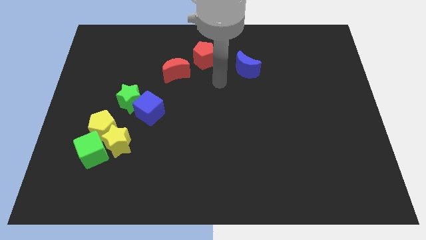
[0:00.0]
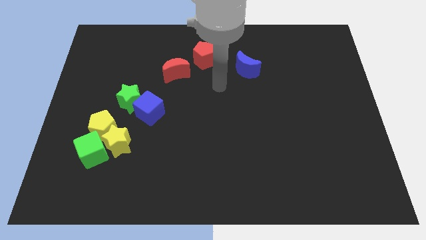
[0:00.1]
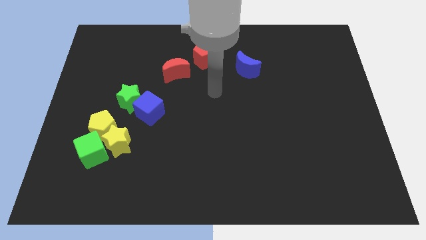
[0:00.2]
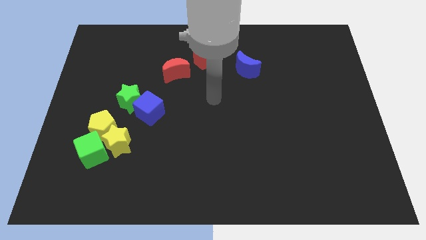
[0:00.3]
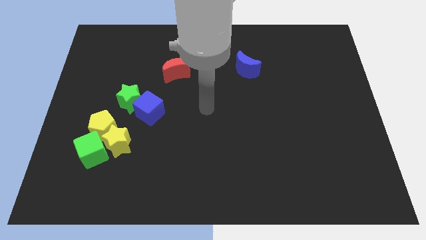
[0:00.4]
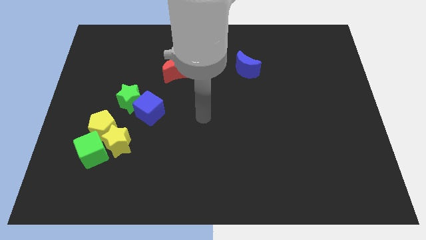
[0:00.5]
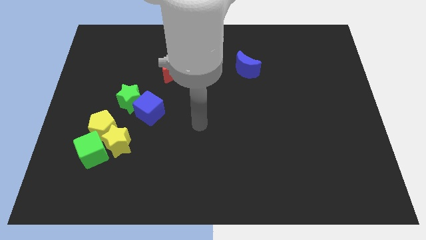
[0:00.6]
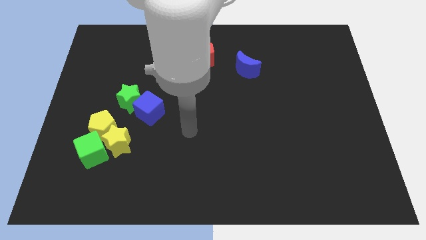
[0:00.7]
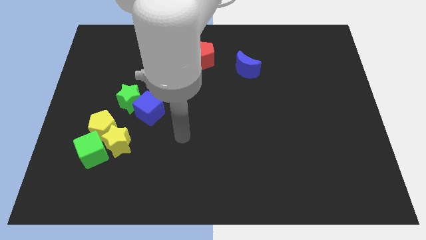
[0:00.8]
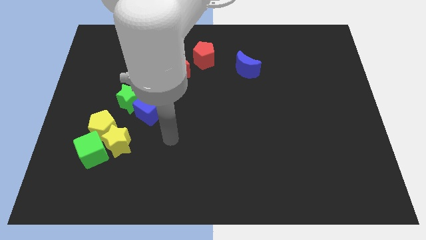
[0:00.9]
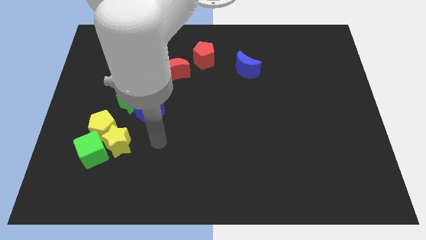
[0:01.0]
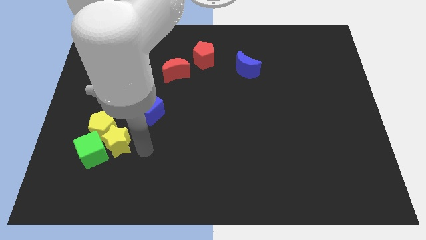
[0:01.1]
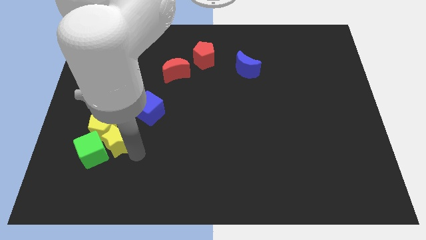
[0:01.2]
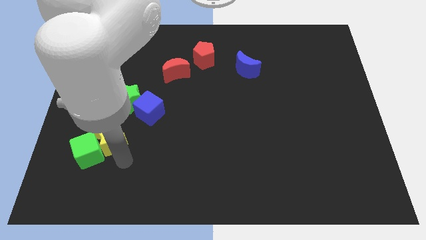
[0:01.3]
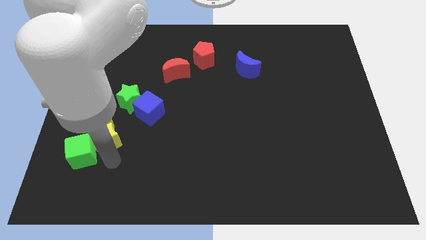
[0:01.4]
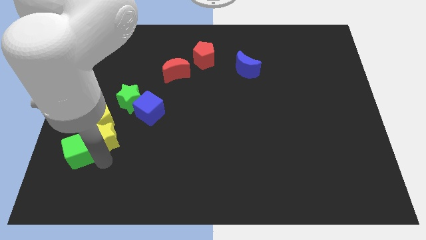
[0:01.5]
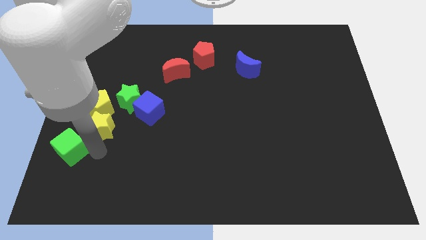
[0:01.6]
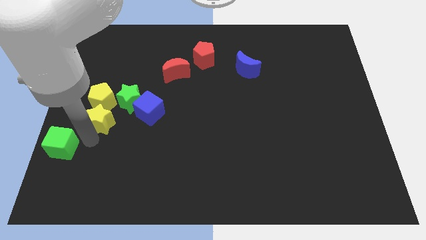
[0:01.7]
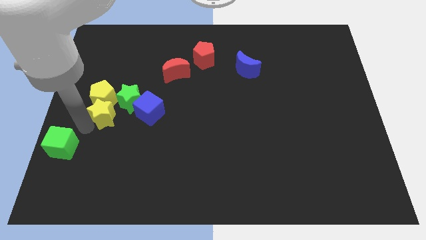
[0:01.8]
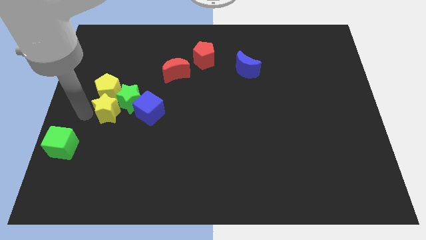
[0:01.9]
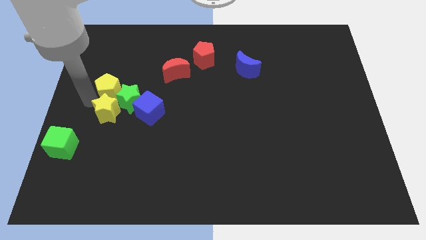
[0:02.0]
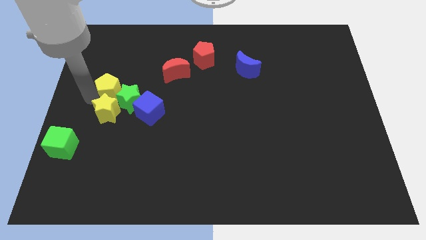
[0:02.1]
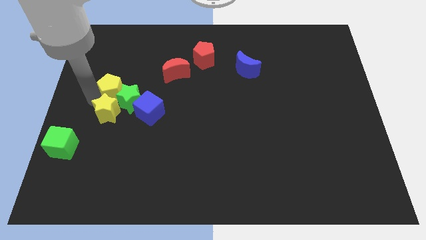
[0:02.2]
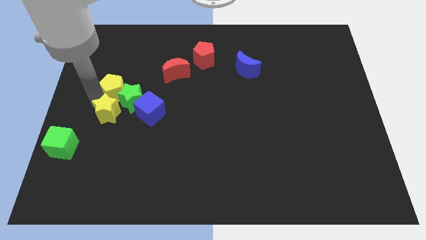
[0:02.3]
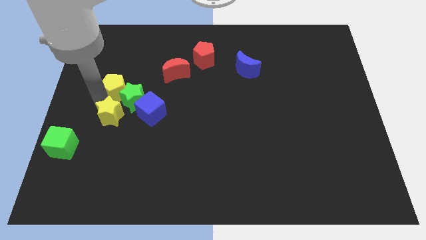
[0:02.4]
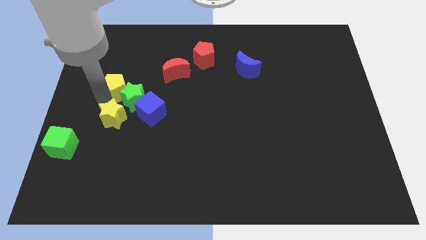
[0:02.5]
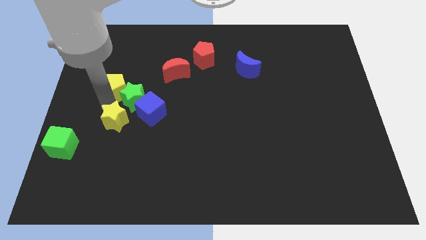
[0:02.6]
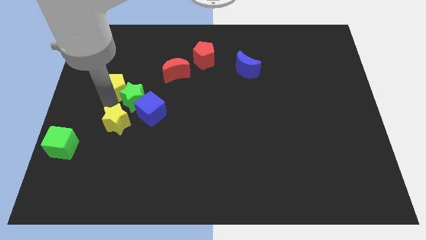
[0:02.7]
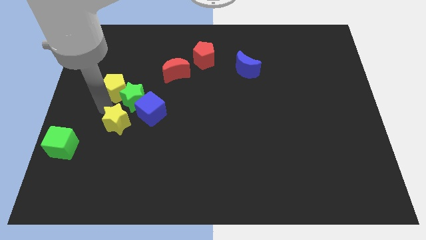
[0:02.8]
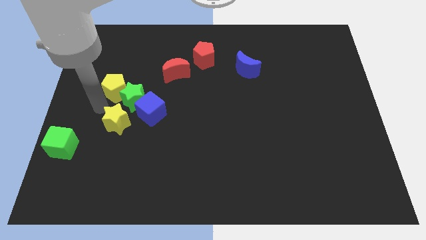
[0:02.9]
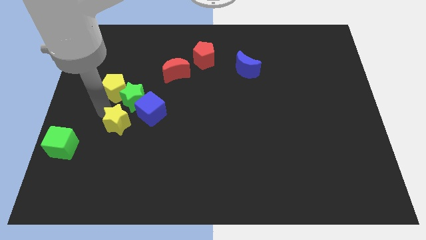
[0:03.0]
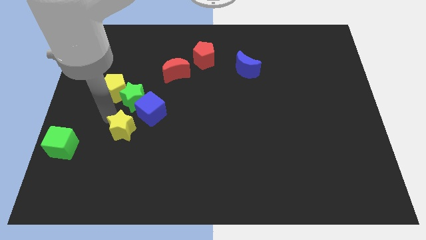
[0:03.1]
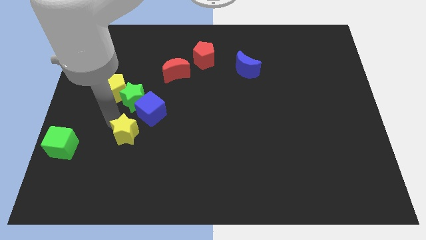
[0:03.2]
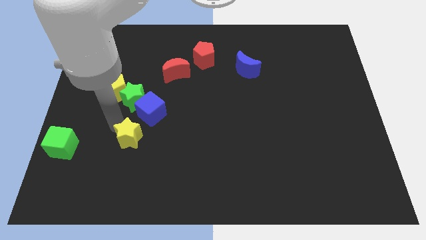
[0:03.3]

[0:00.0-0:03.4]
move the yellow star away from the yellow pentagon and green cube

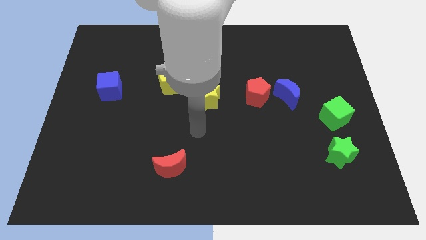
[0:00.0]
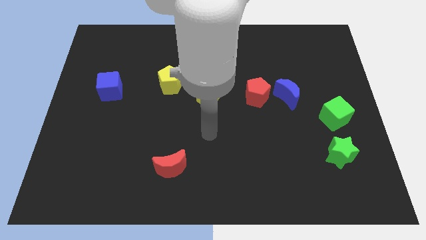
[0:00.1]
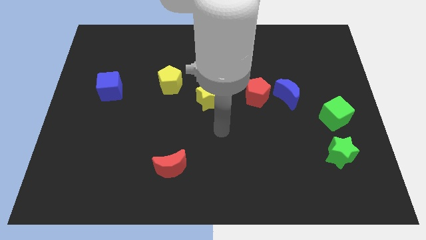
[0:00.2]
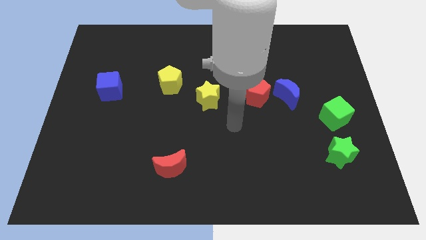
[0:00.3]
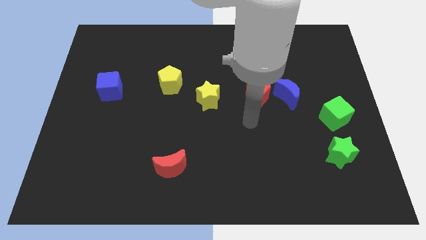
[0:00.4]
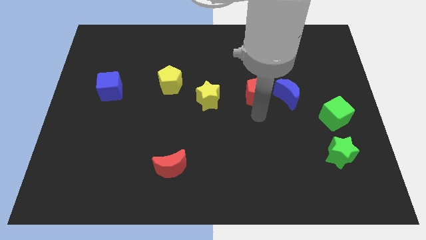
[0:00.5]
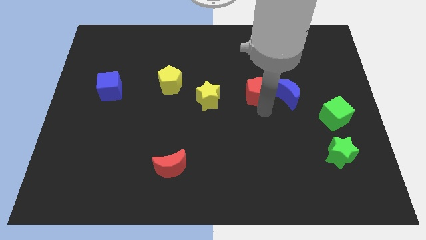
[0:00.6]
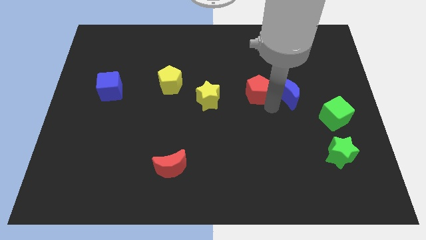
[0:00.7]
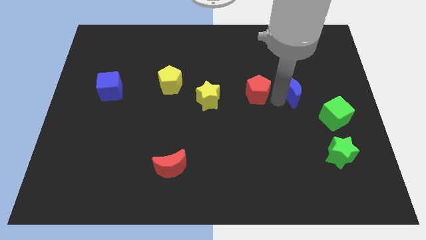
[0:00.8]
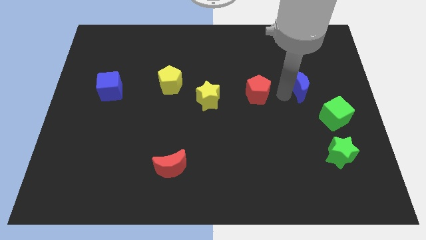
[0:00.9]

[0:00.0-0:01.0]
move the red pentagon away from the blue moon

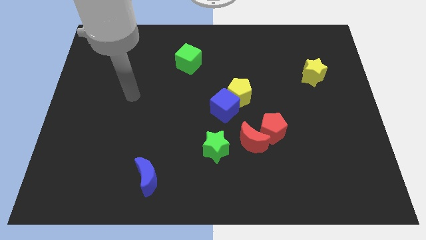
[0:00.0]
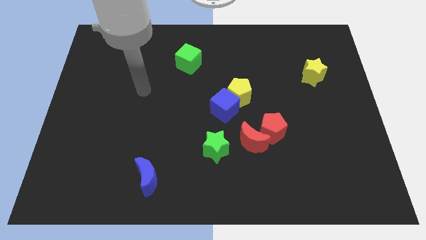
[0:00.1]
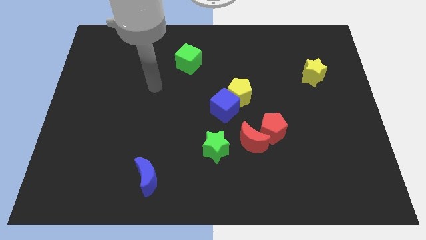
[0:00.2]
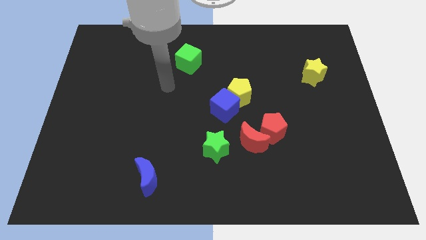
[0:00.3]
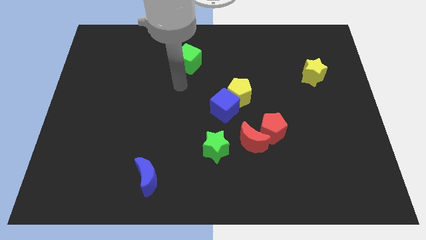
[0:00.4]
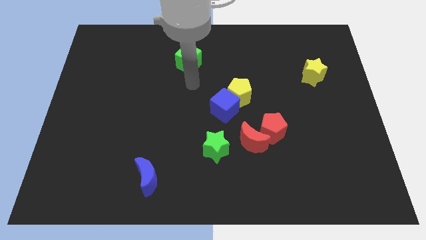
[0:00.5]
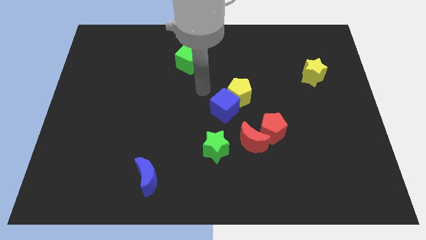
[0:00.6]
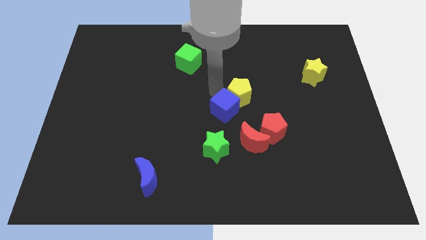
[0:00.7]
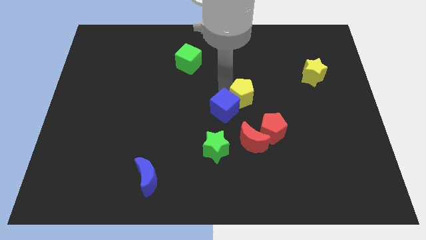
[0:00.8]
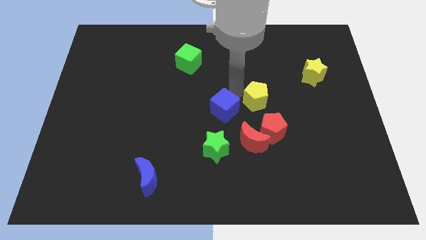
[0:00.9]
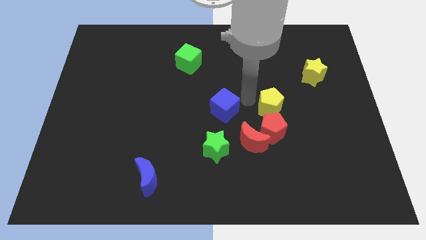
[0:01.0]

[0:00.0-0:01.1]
pull the blue cube apart from the yellow pentagon

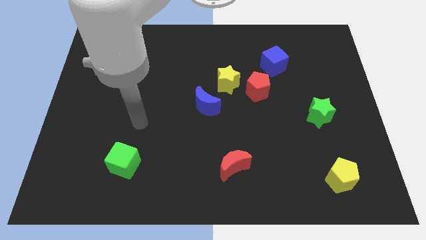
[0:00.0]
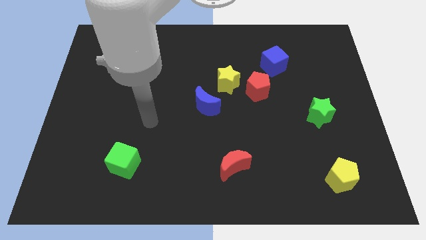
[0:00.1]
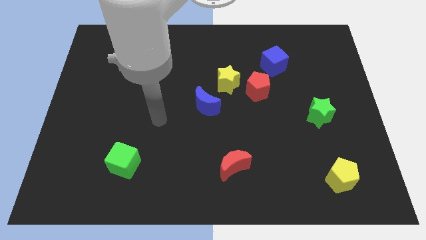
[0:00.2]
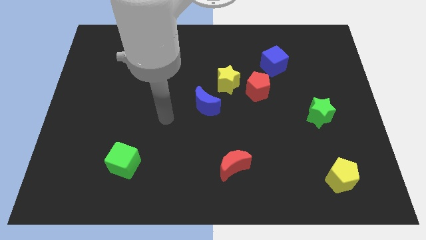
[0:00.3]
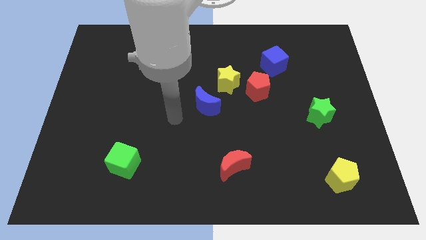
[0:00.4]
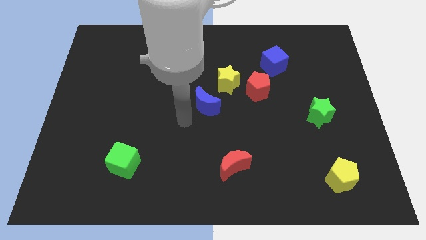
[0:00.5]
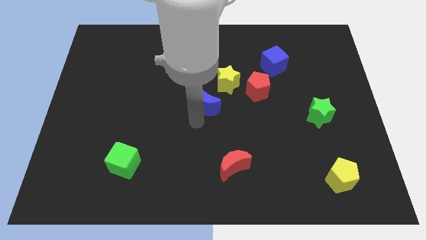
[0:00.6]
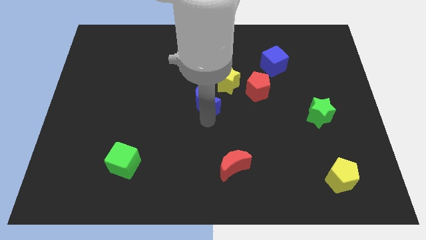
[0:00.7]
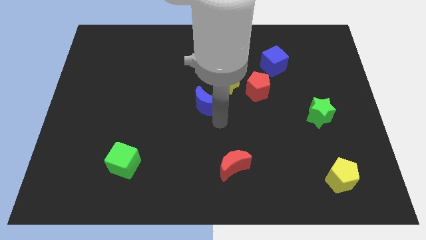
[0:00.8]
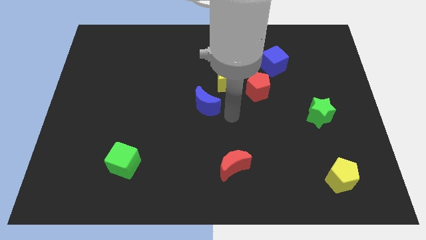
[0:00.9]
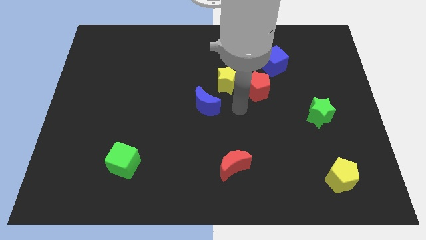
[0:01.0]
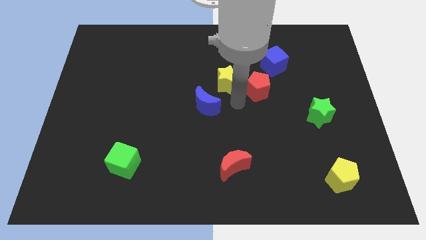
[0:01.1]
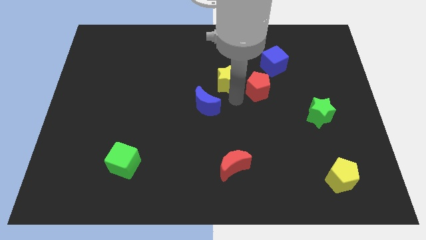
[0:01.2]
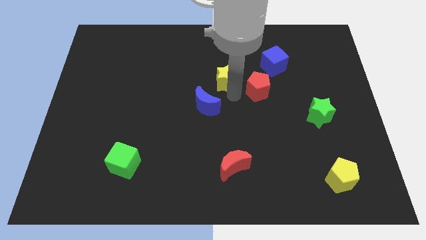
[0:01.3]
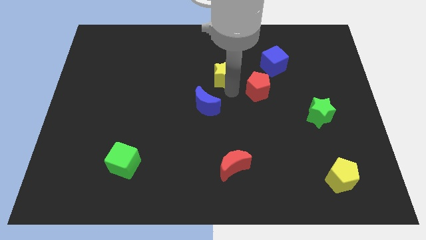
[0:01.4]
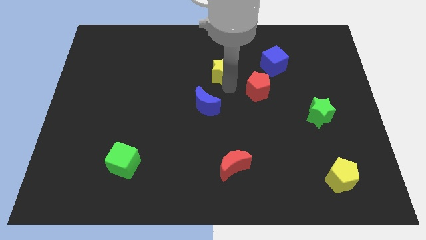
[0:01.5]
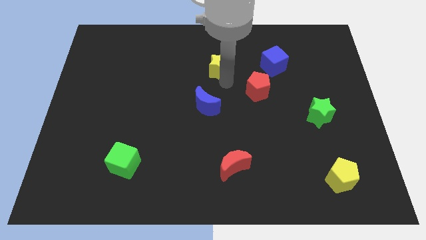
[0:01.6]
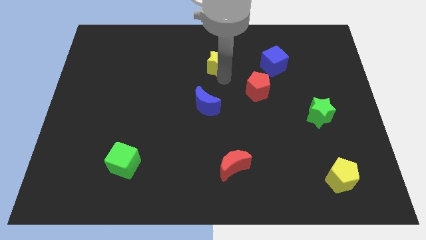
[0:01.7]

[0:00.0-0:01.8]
move the yellow star away from the red pentagon and blue moon

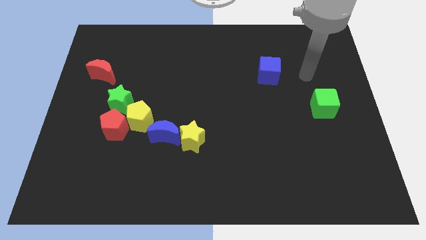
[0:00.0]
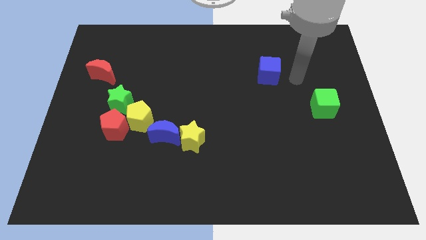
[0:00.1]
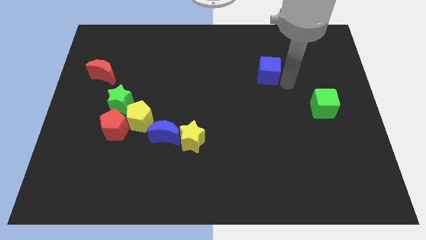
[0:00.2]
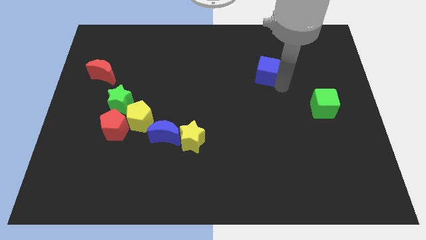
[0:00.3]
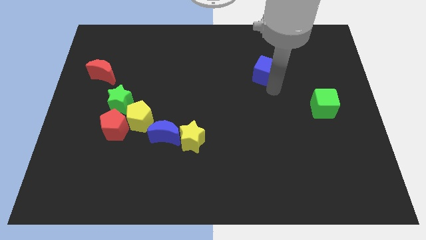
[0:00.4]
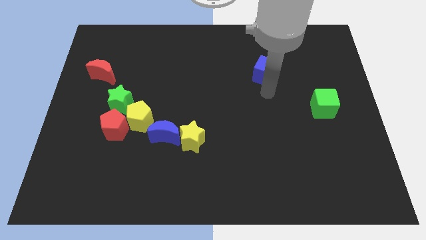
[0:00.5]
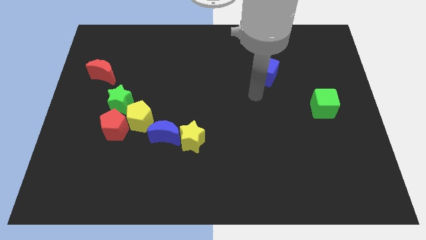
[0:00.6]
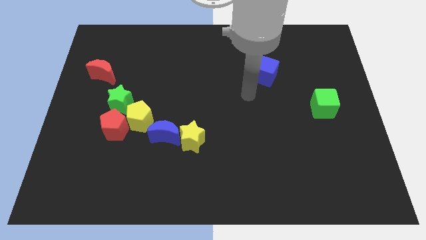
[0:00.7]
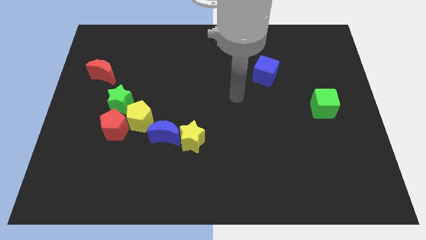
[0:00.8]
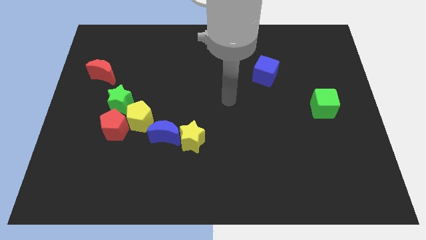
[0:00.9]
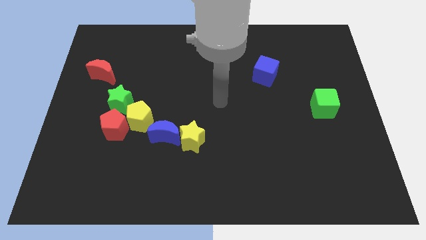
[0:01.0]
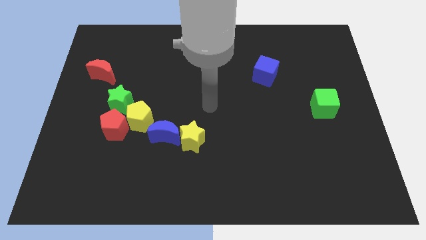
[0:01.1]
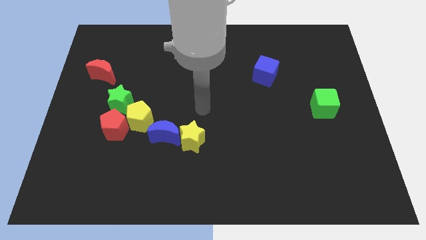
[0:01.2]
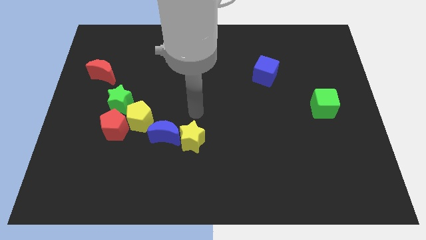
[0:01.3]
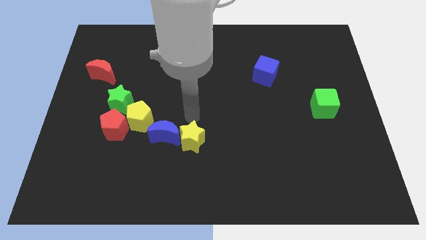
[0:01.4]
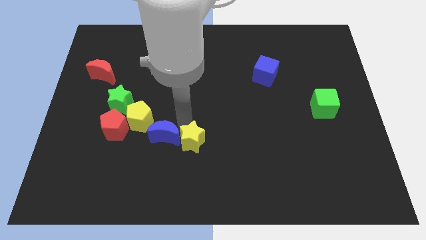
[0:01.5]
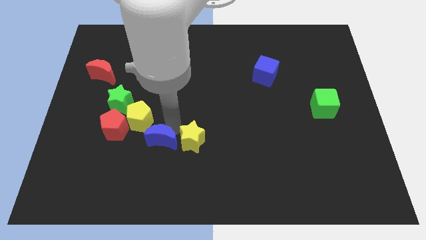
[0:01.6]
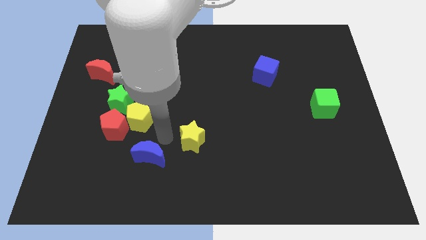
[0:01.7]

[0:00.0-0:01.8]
separate the yellow star from the blue moon

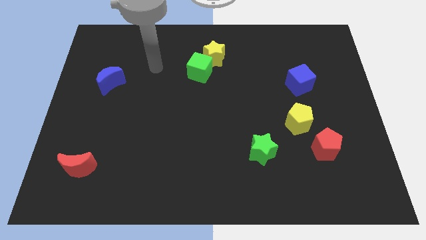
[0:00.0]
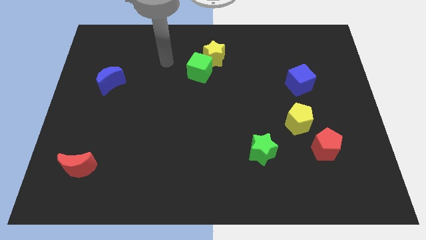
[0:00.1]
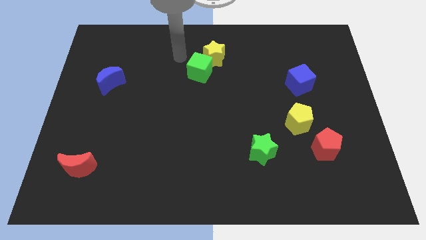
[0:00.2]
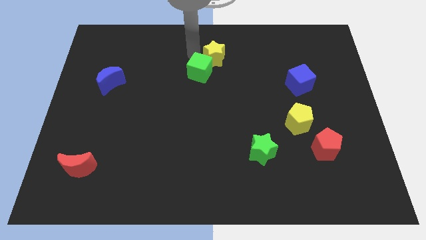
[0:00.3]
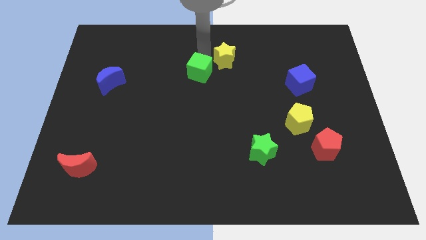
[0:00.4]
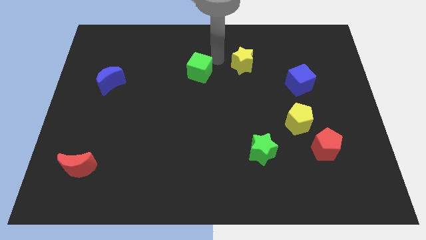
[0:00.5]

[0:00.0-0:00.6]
pull the green cube apart from the yellow star
